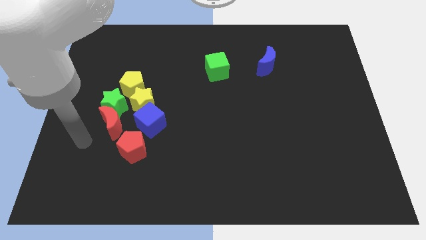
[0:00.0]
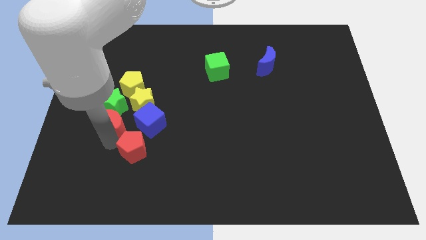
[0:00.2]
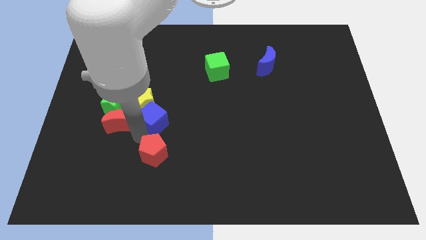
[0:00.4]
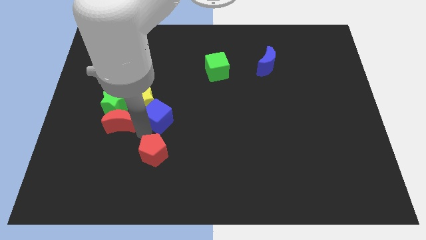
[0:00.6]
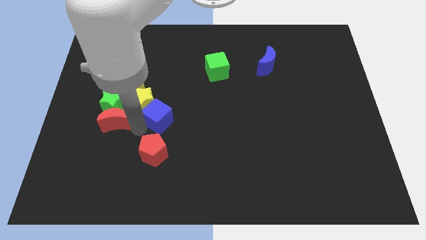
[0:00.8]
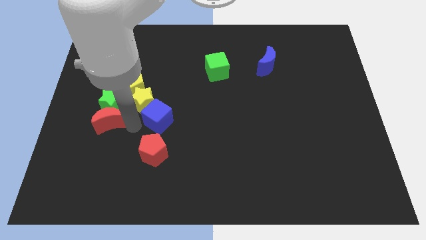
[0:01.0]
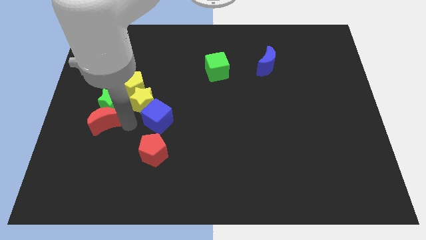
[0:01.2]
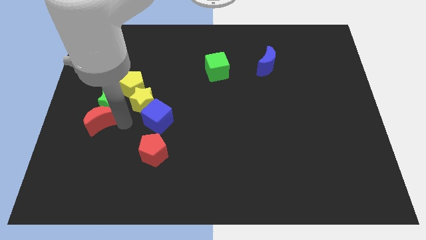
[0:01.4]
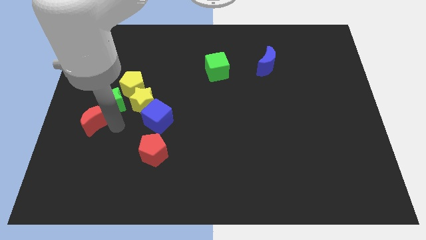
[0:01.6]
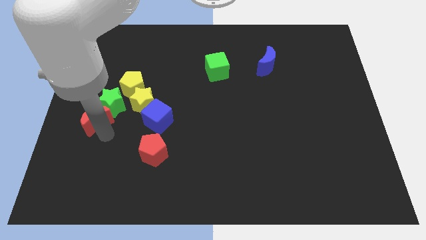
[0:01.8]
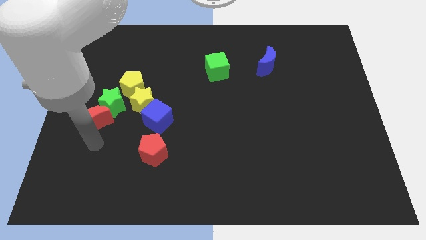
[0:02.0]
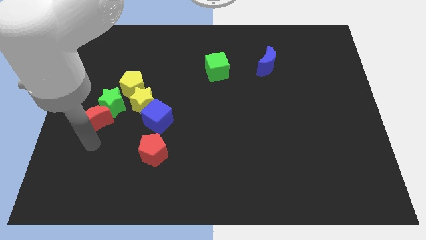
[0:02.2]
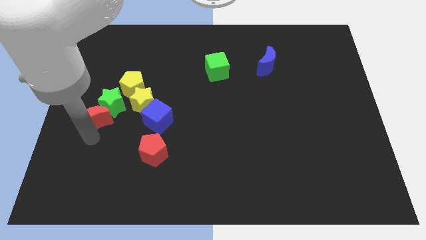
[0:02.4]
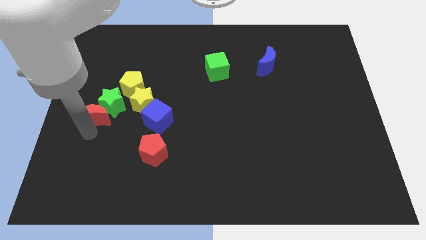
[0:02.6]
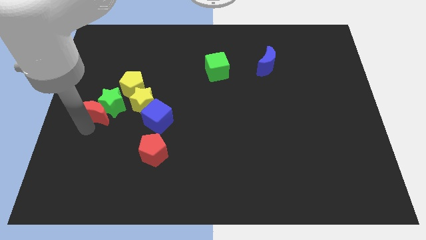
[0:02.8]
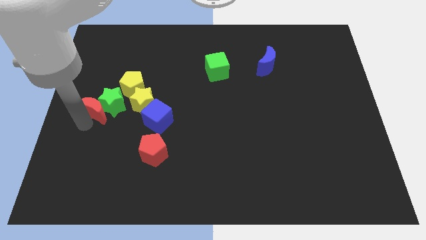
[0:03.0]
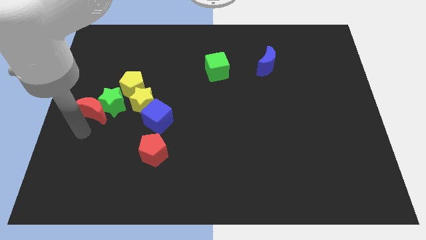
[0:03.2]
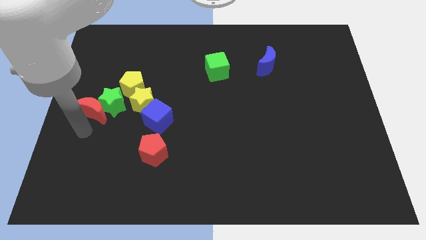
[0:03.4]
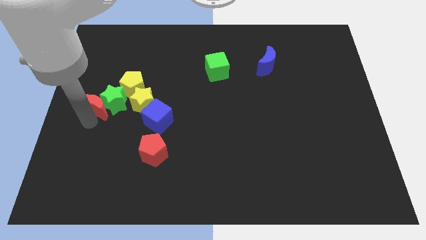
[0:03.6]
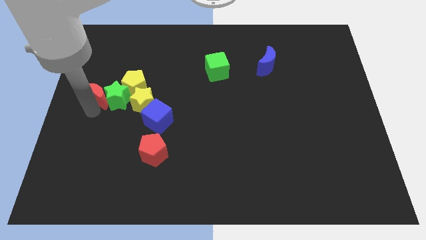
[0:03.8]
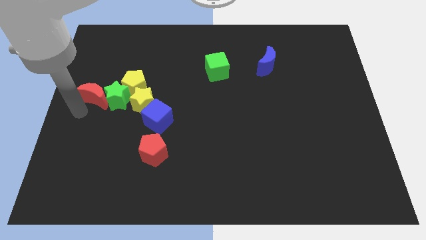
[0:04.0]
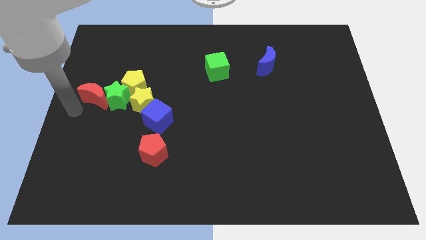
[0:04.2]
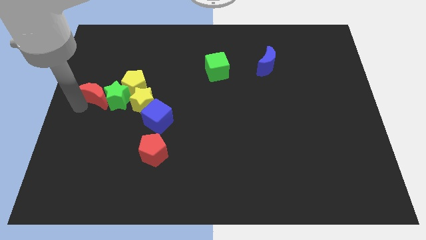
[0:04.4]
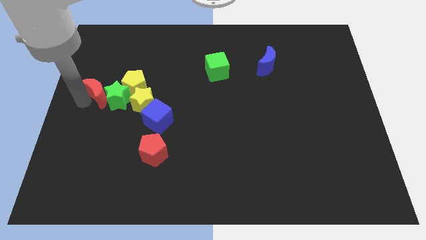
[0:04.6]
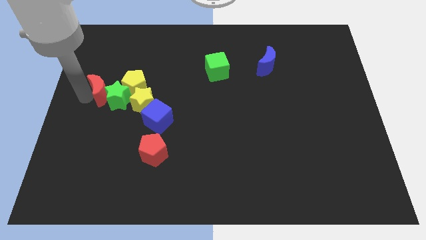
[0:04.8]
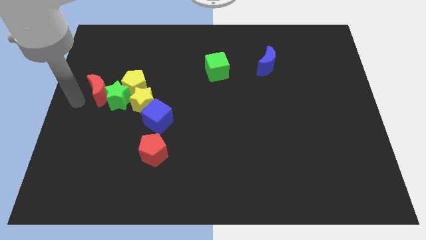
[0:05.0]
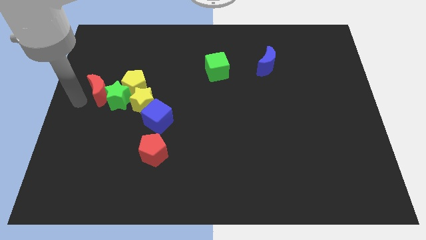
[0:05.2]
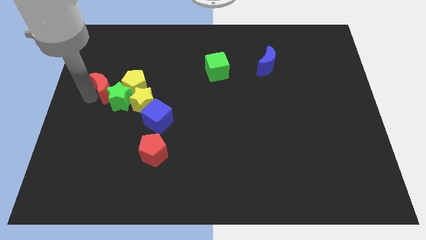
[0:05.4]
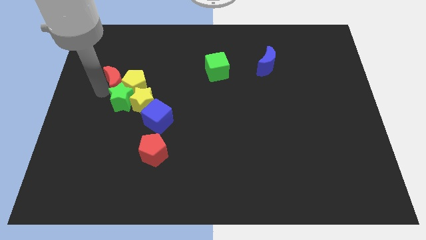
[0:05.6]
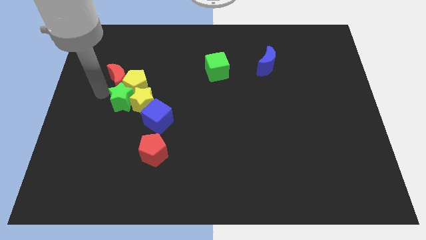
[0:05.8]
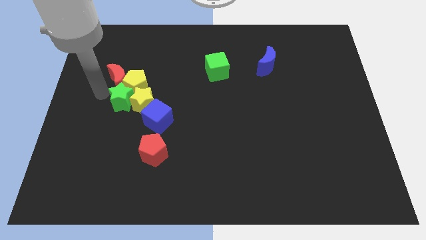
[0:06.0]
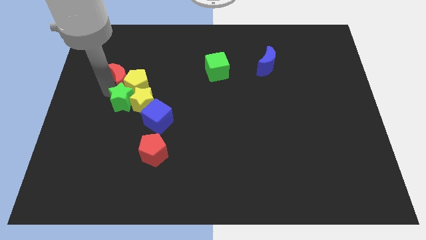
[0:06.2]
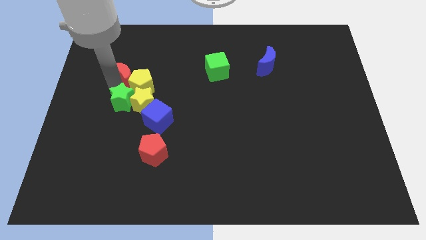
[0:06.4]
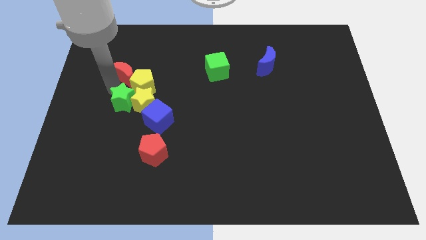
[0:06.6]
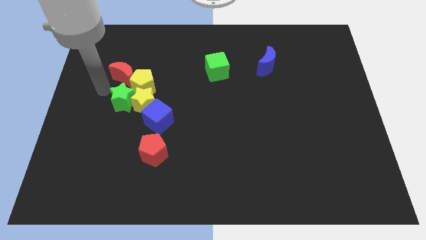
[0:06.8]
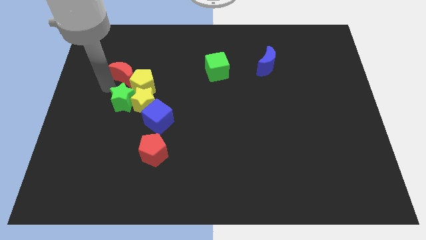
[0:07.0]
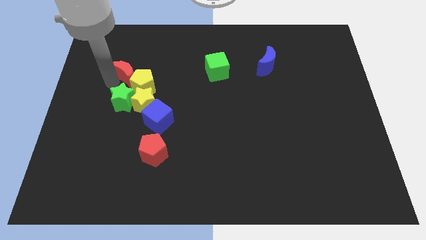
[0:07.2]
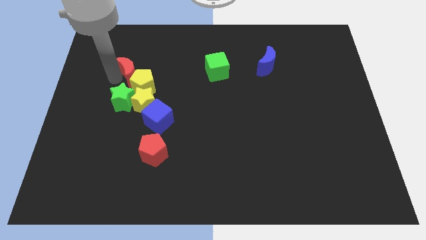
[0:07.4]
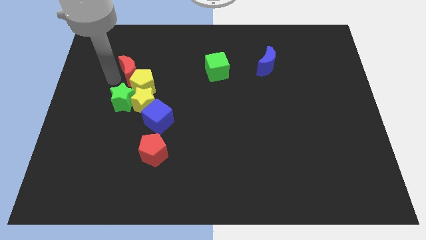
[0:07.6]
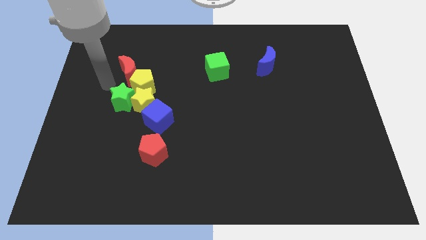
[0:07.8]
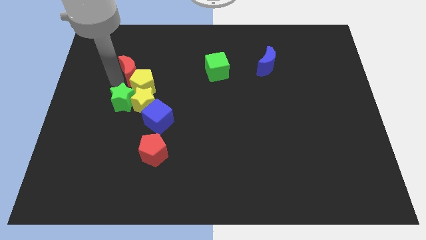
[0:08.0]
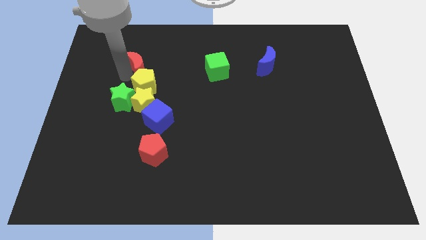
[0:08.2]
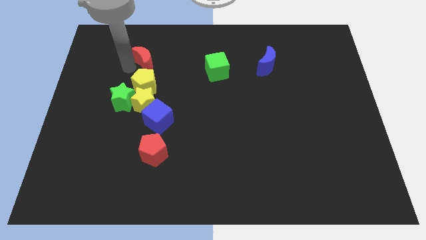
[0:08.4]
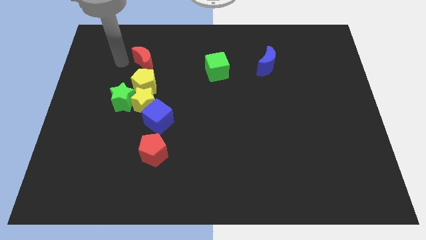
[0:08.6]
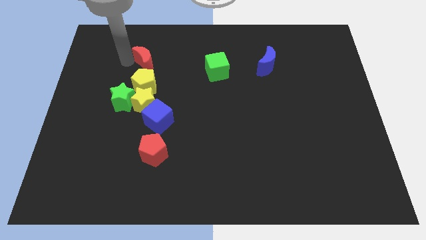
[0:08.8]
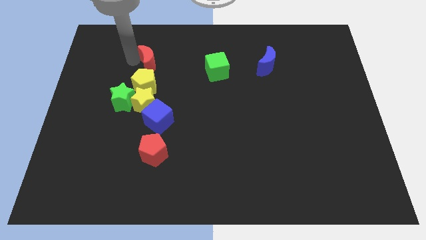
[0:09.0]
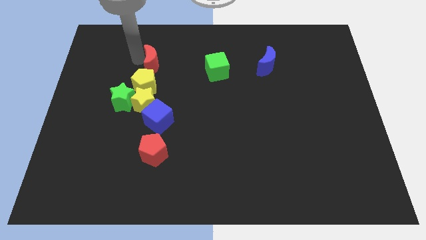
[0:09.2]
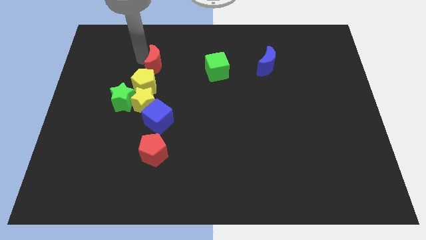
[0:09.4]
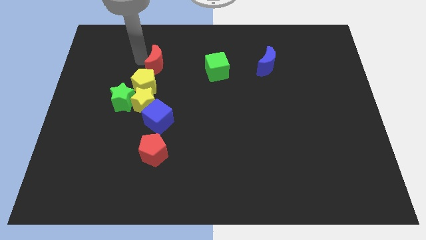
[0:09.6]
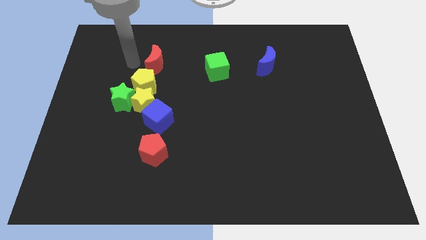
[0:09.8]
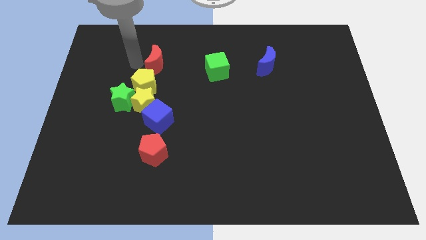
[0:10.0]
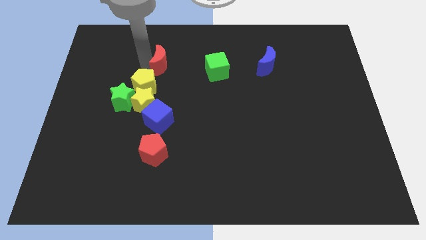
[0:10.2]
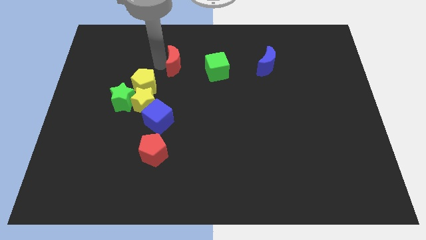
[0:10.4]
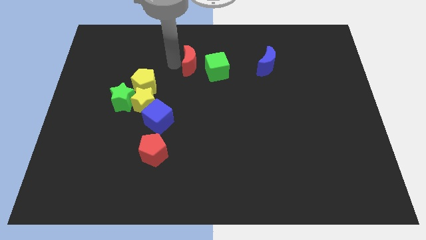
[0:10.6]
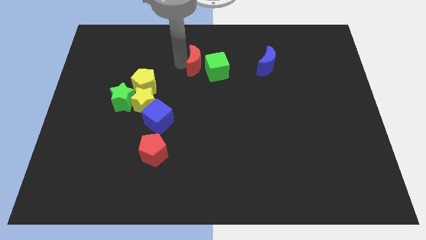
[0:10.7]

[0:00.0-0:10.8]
slide the red moon towards the green cube

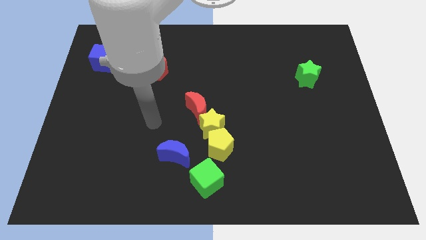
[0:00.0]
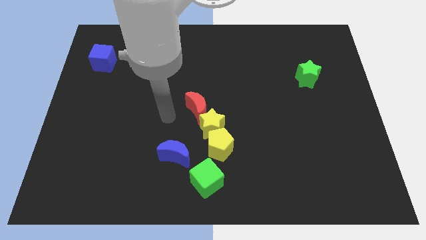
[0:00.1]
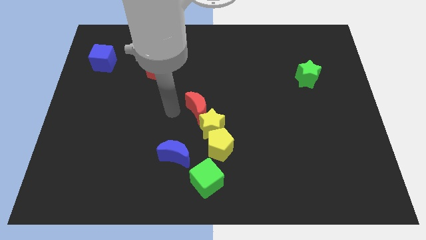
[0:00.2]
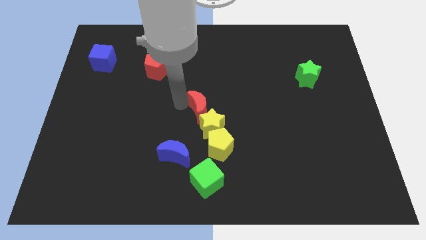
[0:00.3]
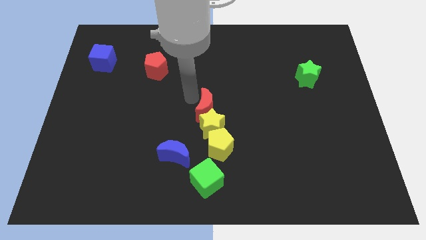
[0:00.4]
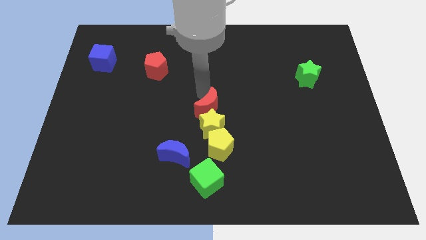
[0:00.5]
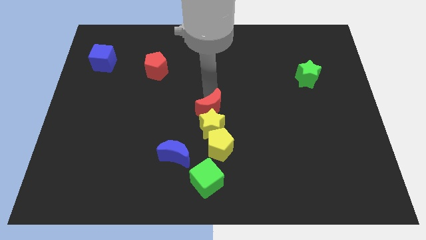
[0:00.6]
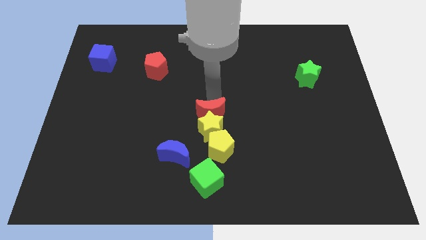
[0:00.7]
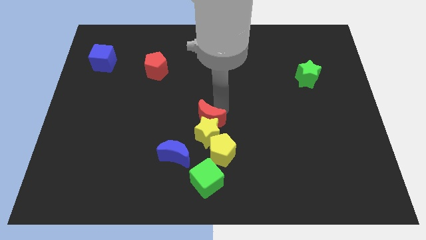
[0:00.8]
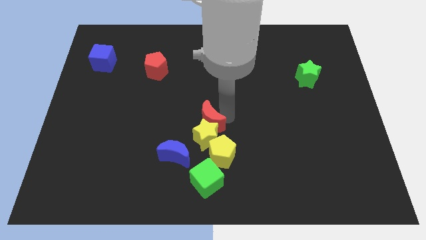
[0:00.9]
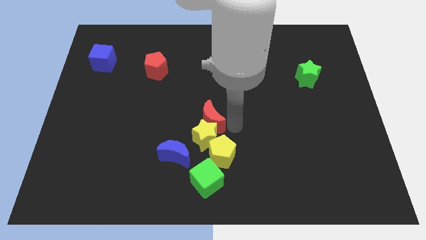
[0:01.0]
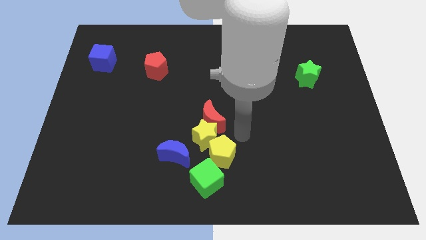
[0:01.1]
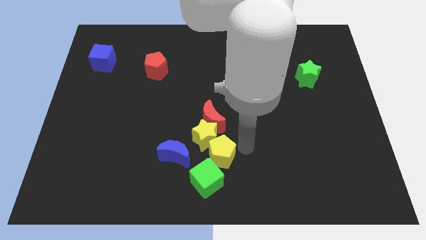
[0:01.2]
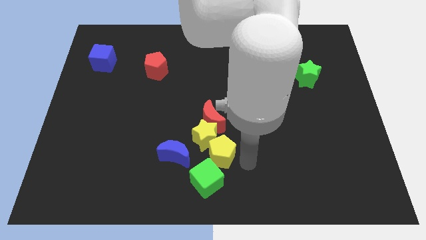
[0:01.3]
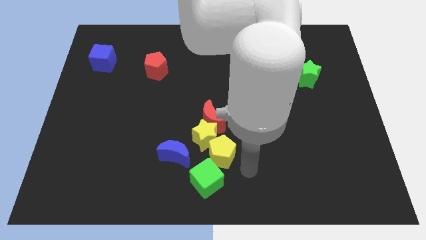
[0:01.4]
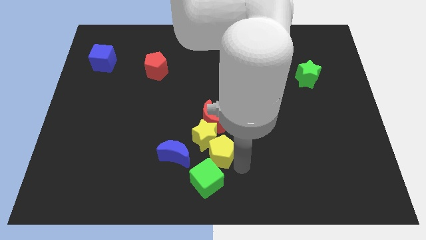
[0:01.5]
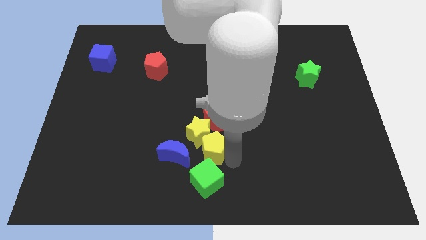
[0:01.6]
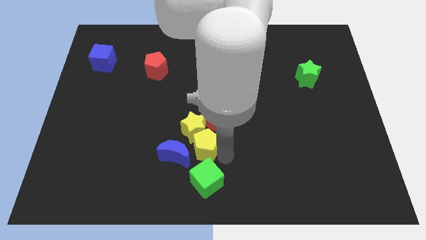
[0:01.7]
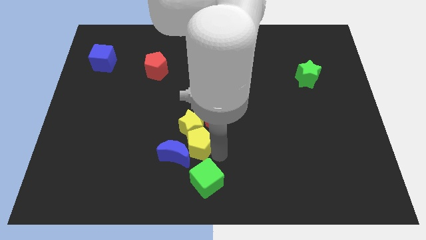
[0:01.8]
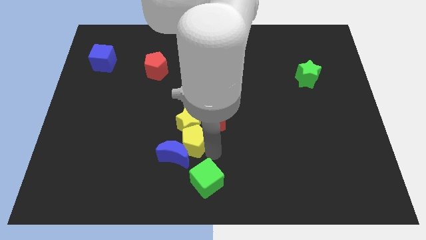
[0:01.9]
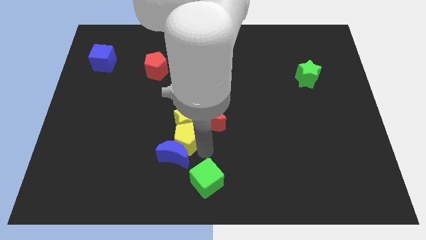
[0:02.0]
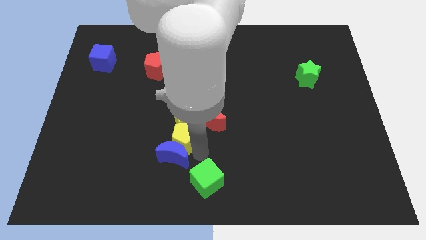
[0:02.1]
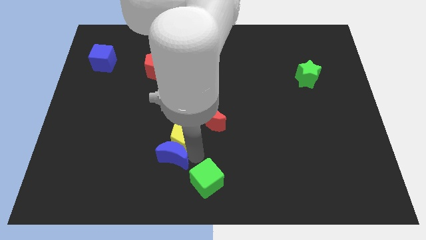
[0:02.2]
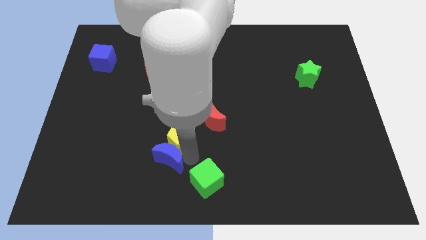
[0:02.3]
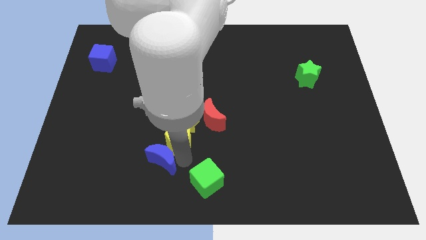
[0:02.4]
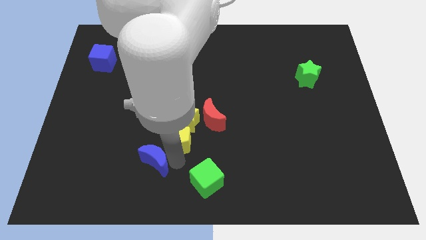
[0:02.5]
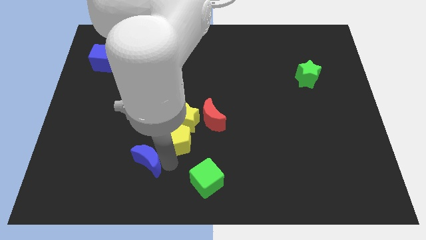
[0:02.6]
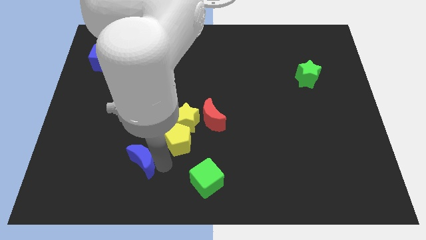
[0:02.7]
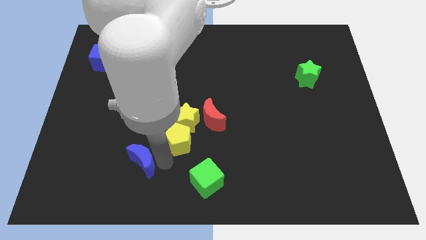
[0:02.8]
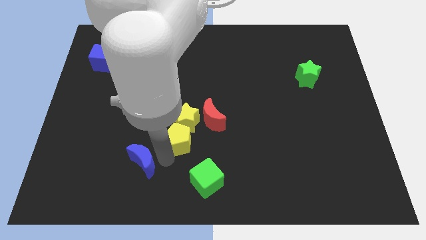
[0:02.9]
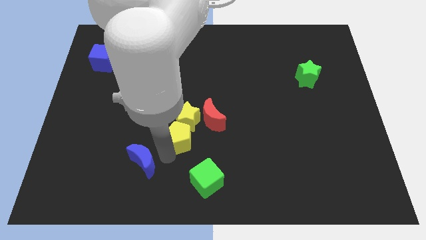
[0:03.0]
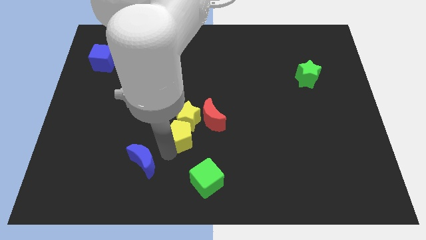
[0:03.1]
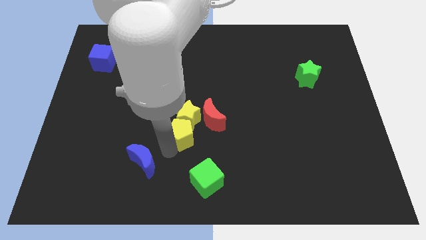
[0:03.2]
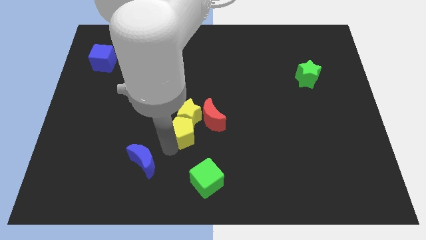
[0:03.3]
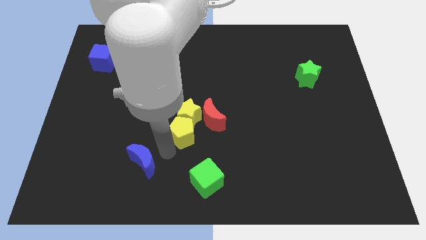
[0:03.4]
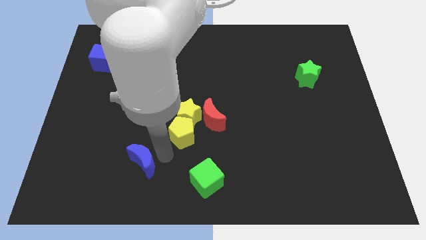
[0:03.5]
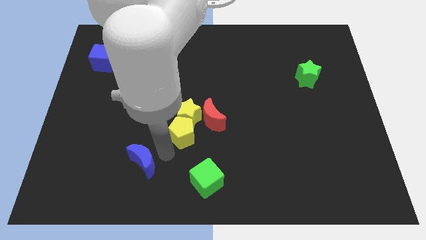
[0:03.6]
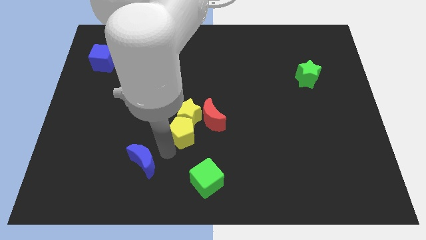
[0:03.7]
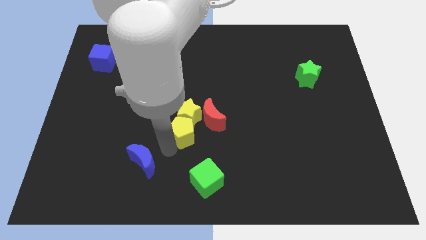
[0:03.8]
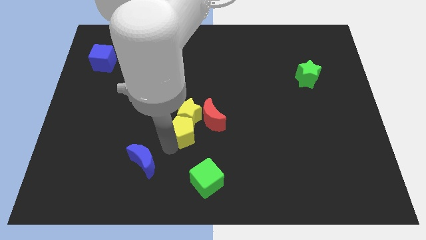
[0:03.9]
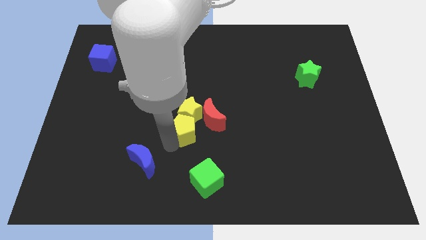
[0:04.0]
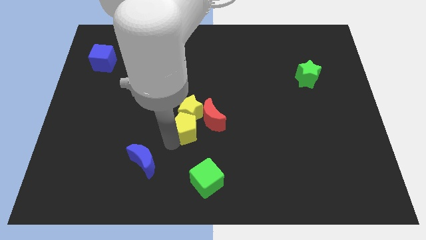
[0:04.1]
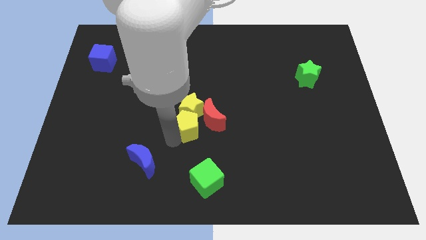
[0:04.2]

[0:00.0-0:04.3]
put the yellow pentagon to the red moon
